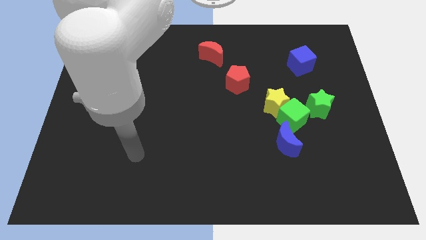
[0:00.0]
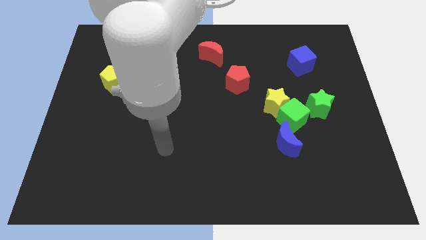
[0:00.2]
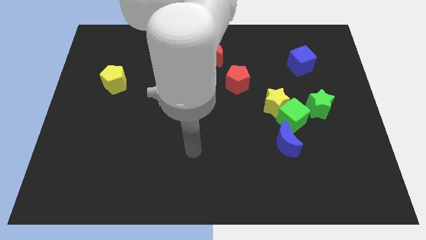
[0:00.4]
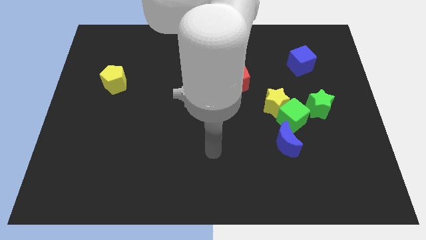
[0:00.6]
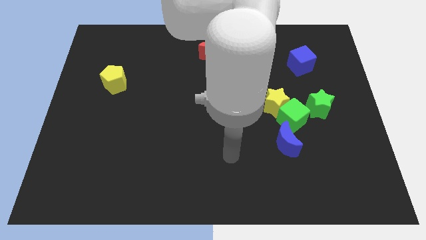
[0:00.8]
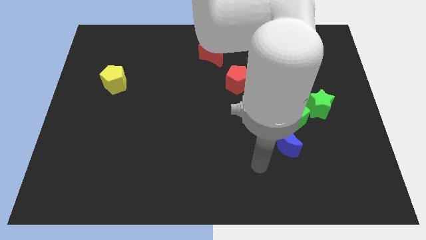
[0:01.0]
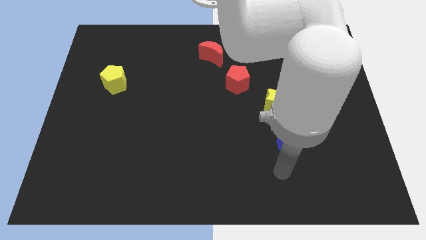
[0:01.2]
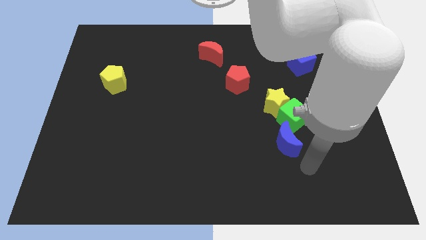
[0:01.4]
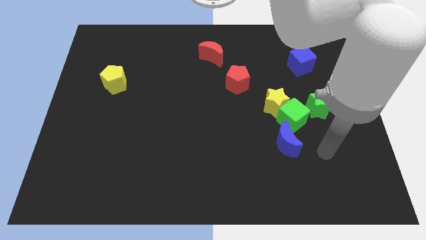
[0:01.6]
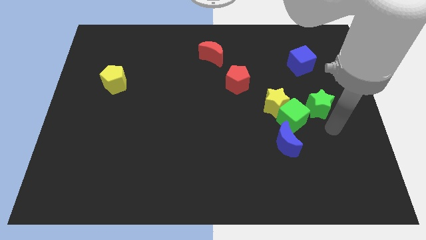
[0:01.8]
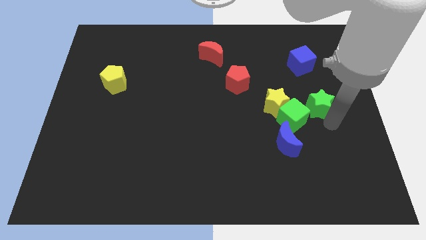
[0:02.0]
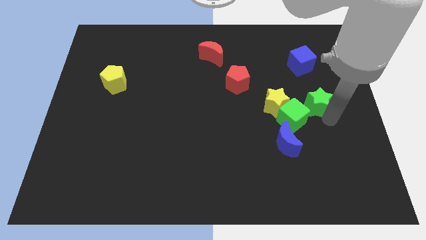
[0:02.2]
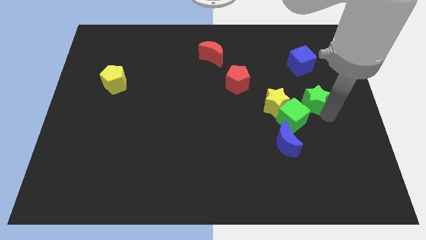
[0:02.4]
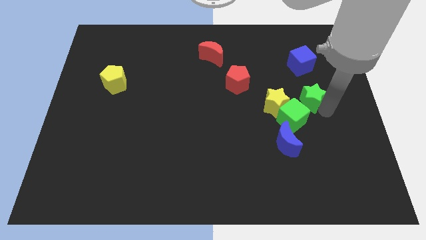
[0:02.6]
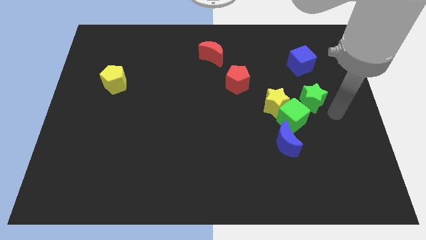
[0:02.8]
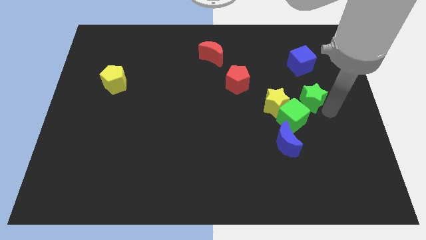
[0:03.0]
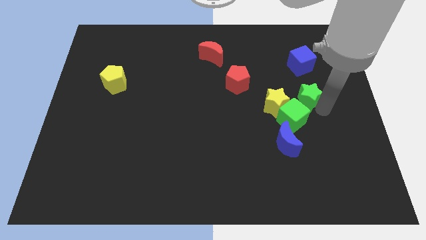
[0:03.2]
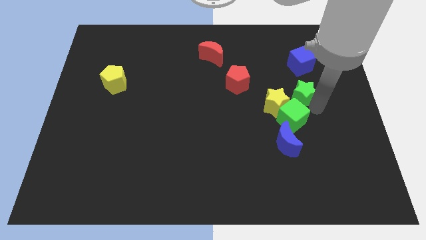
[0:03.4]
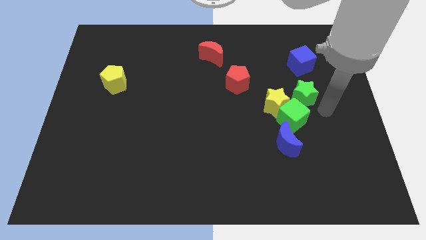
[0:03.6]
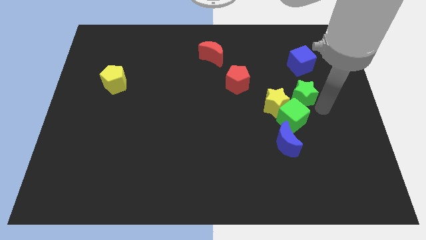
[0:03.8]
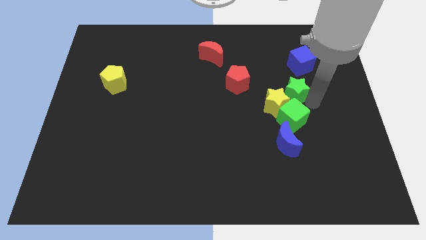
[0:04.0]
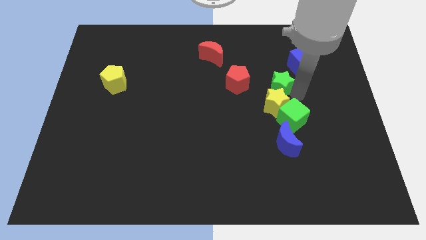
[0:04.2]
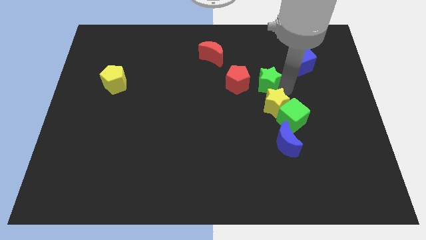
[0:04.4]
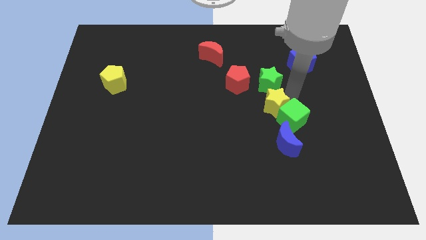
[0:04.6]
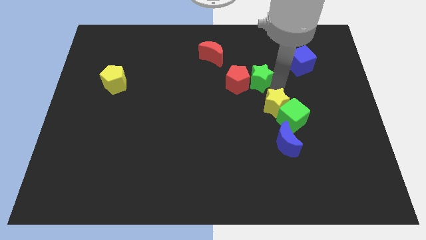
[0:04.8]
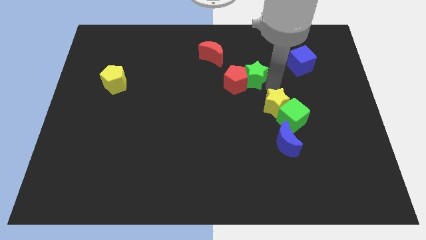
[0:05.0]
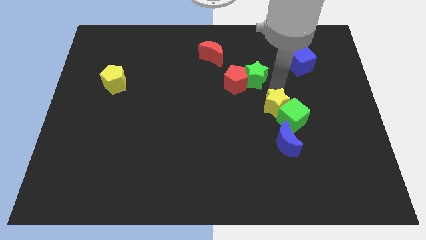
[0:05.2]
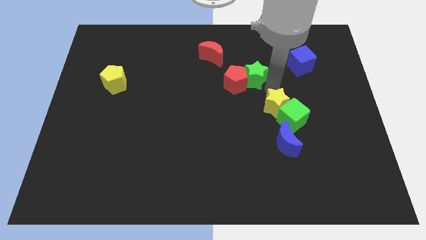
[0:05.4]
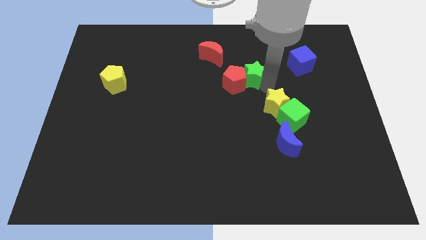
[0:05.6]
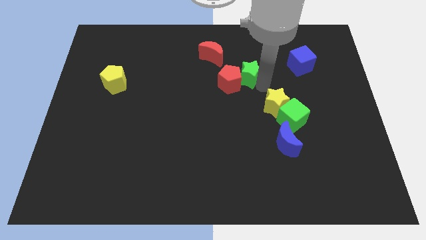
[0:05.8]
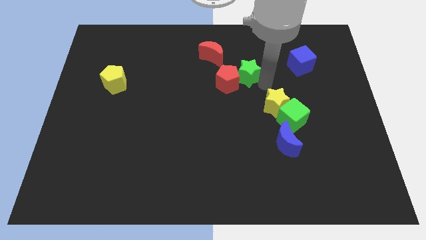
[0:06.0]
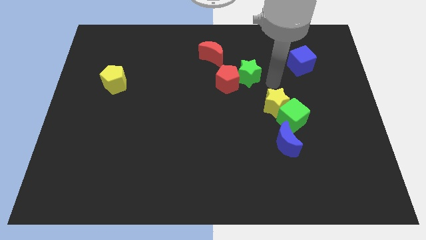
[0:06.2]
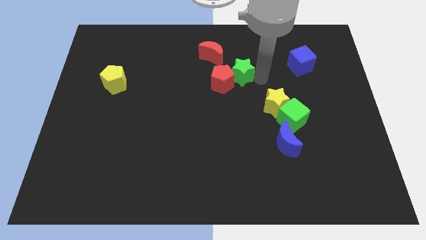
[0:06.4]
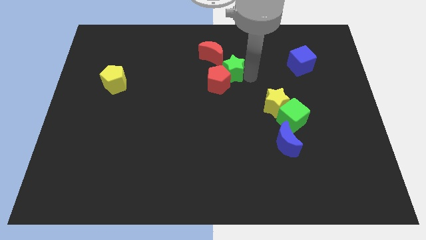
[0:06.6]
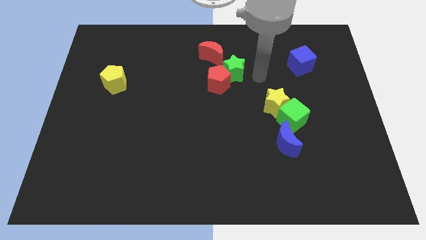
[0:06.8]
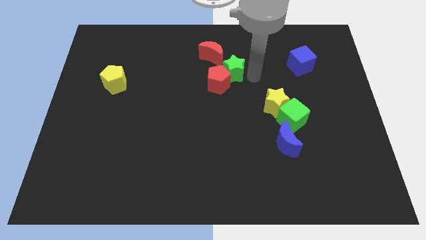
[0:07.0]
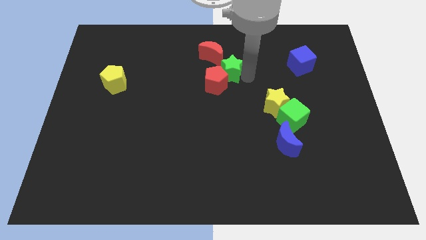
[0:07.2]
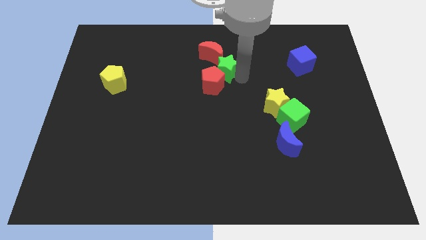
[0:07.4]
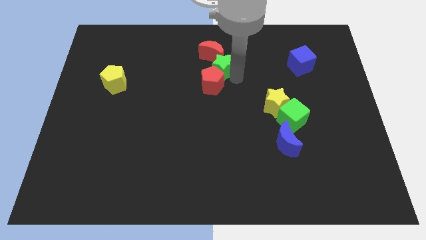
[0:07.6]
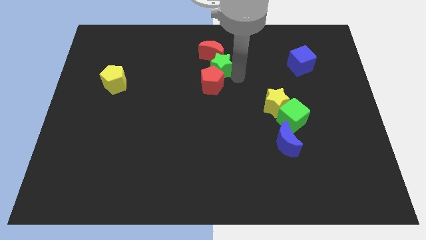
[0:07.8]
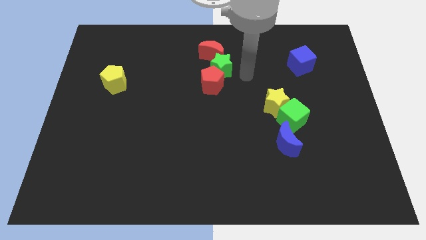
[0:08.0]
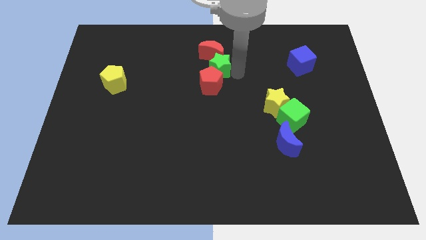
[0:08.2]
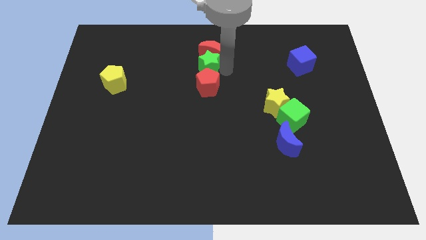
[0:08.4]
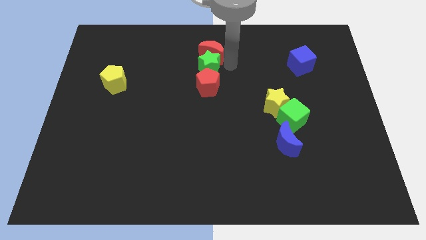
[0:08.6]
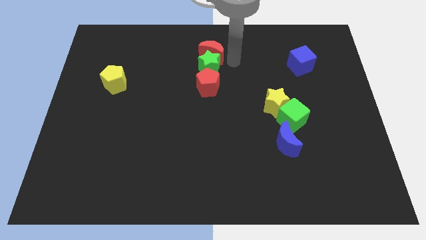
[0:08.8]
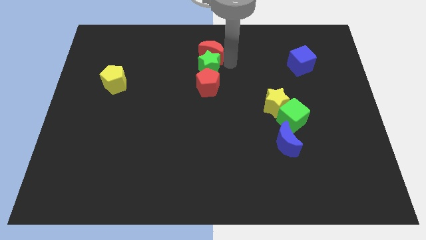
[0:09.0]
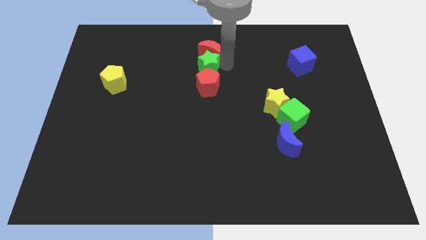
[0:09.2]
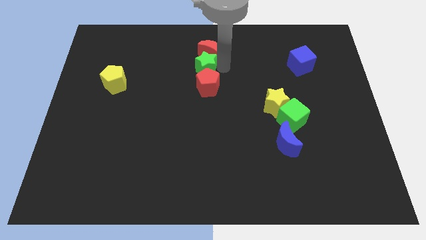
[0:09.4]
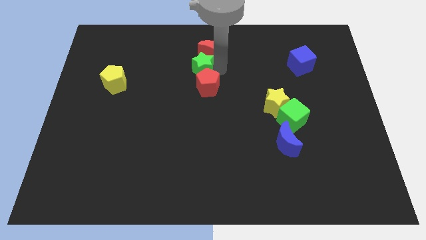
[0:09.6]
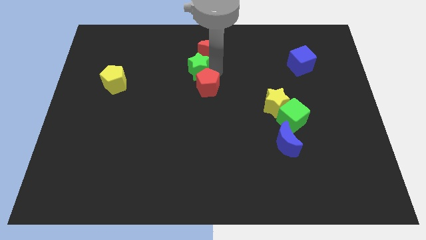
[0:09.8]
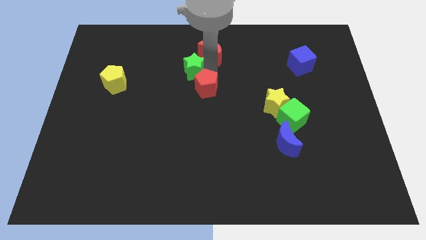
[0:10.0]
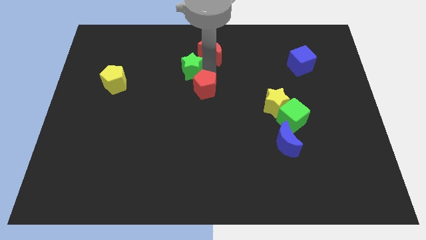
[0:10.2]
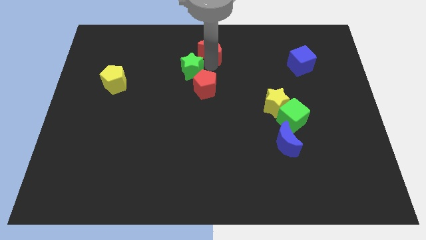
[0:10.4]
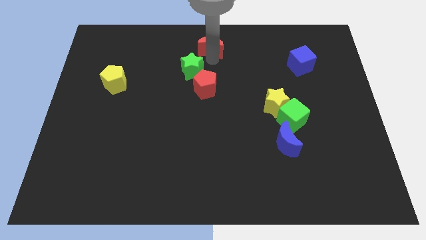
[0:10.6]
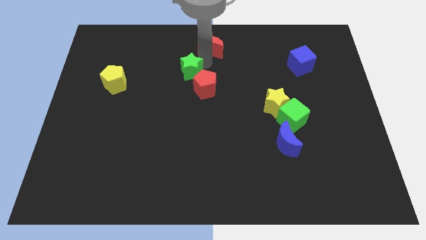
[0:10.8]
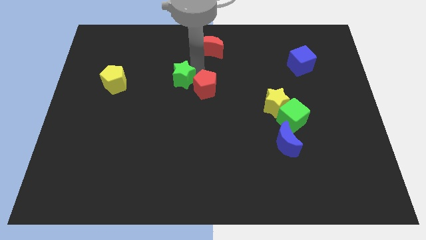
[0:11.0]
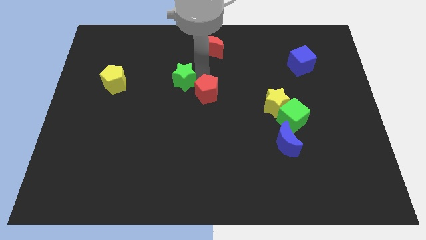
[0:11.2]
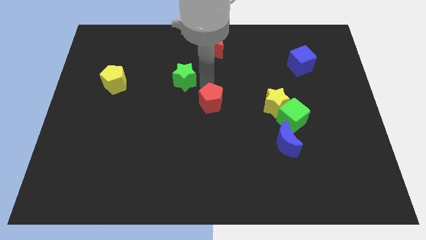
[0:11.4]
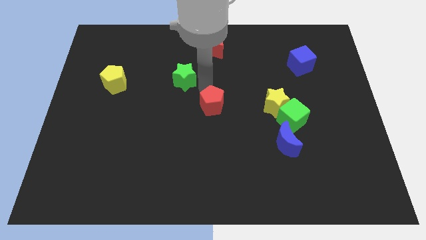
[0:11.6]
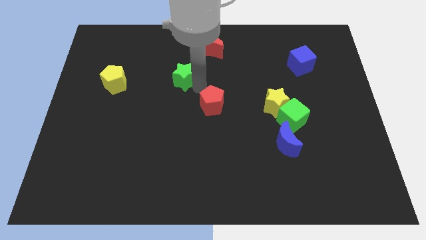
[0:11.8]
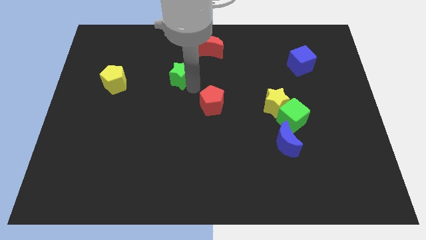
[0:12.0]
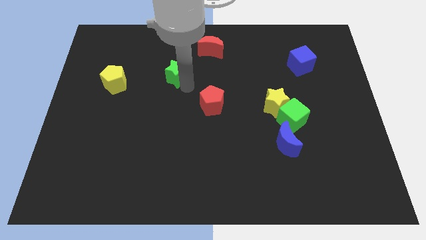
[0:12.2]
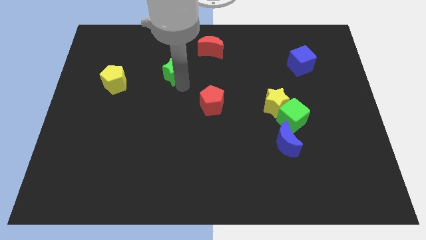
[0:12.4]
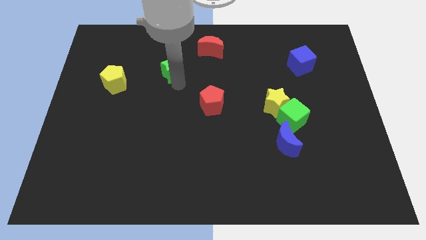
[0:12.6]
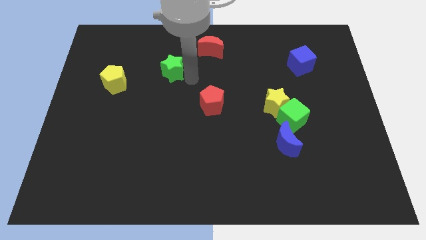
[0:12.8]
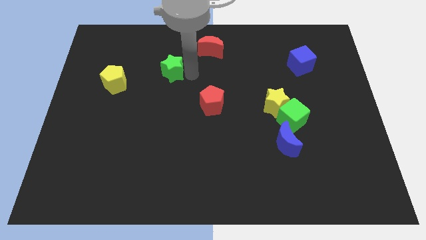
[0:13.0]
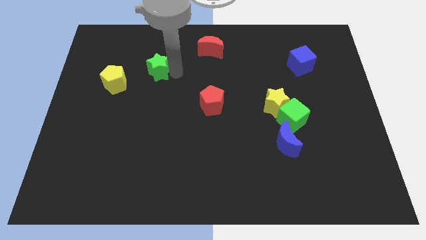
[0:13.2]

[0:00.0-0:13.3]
put the green star diagonally up and to the right of the yellow pentagon

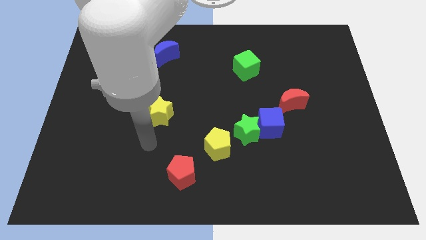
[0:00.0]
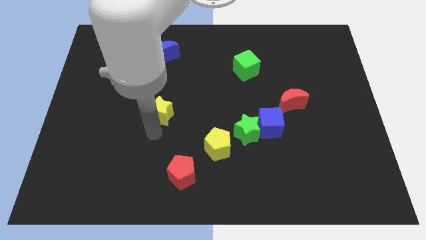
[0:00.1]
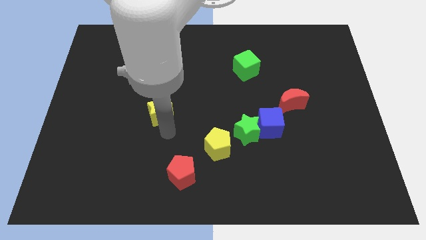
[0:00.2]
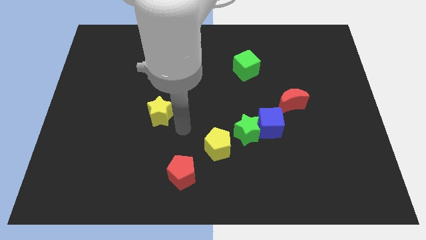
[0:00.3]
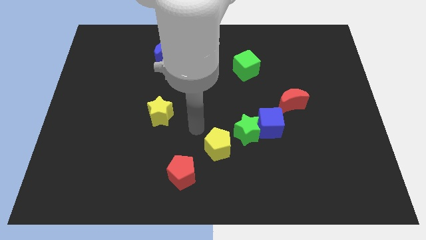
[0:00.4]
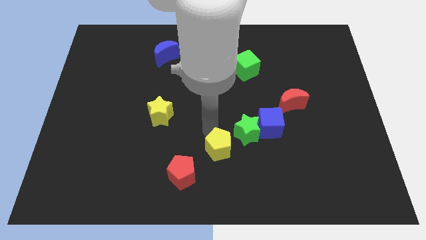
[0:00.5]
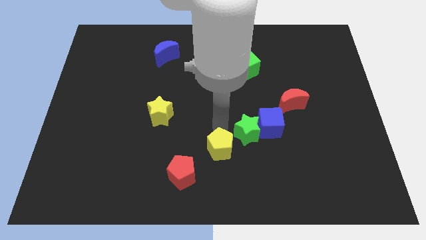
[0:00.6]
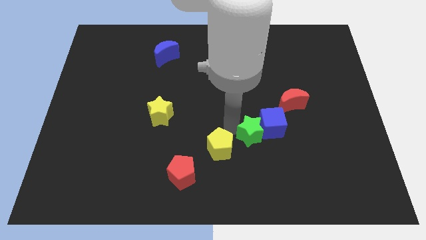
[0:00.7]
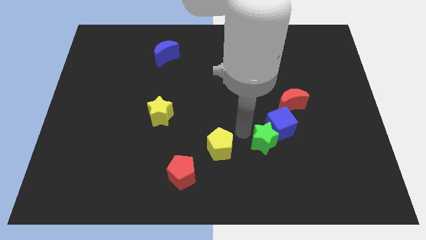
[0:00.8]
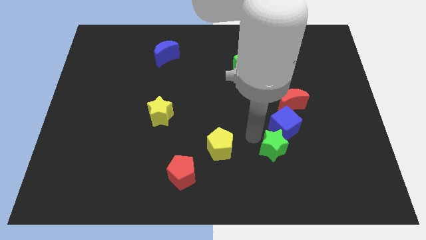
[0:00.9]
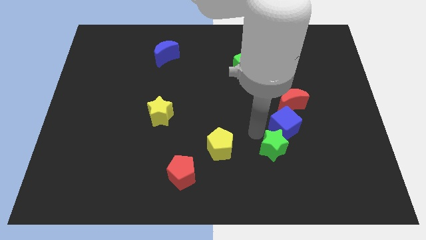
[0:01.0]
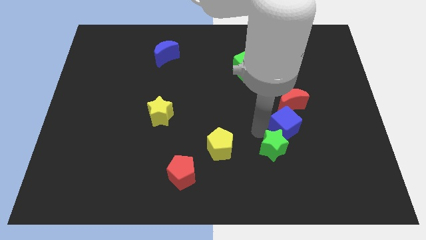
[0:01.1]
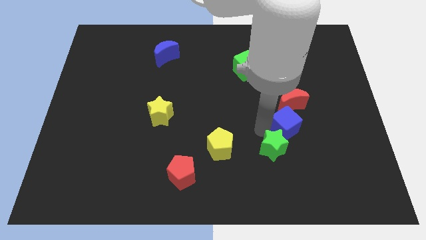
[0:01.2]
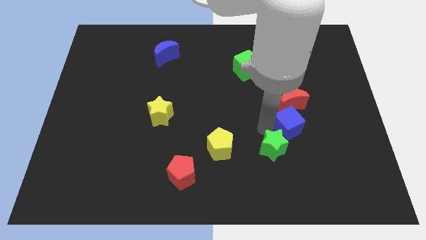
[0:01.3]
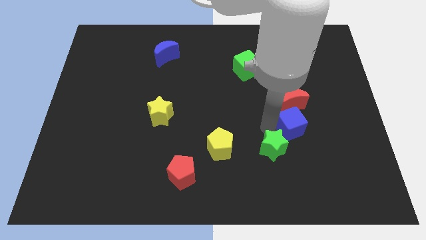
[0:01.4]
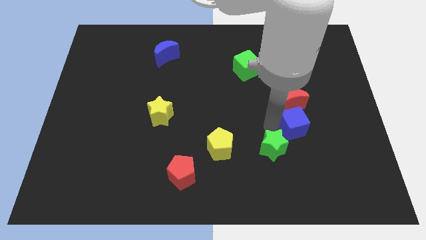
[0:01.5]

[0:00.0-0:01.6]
move the blue cube to the bottom right side of the red moon
